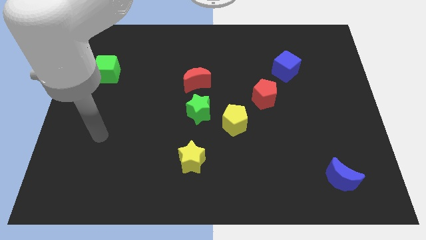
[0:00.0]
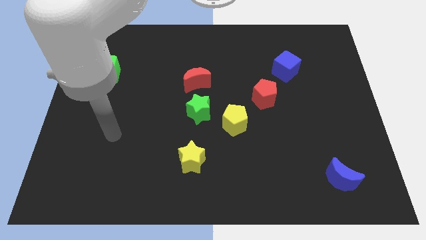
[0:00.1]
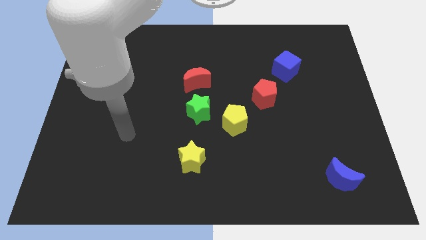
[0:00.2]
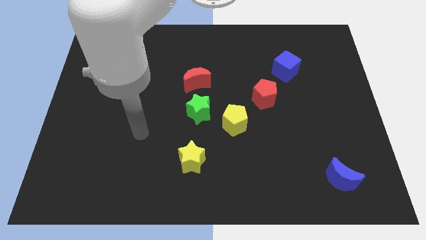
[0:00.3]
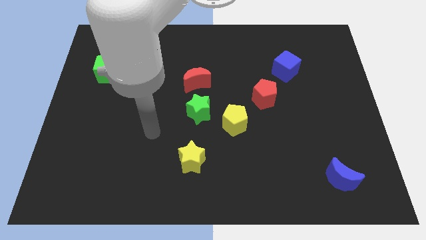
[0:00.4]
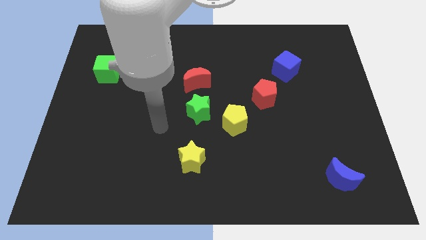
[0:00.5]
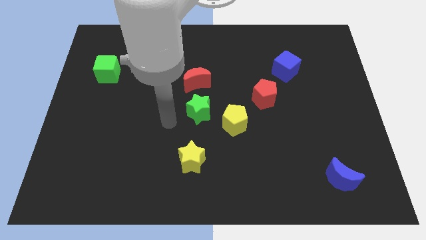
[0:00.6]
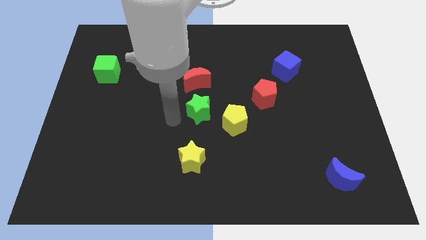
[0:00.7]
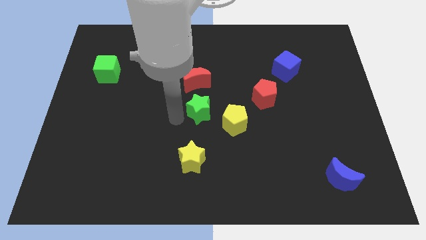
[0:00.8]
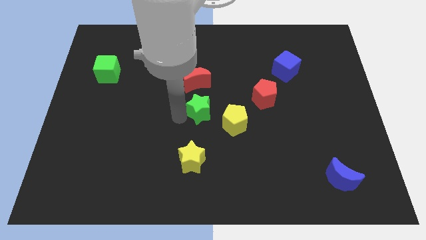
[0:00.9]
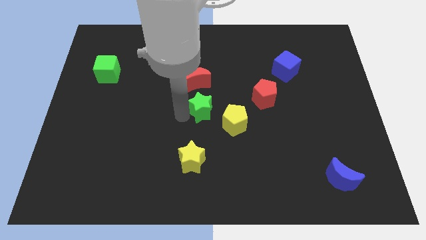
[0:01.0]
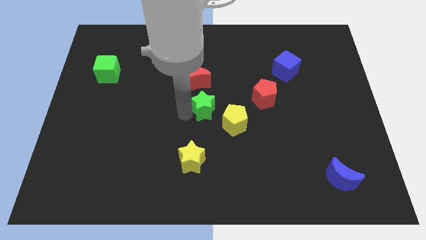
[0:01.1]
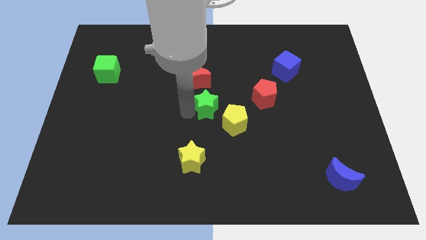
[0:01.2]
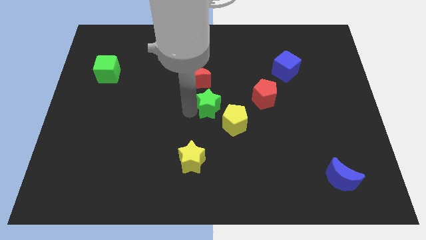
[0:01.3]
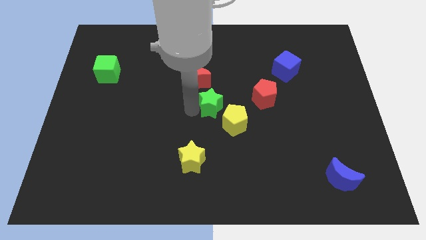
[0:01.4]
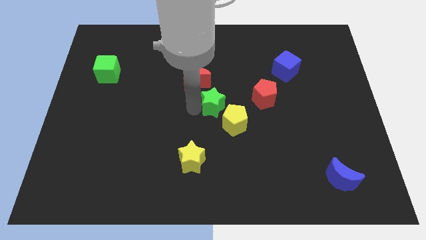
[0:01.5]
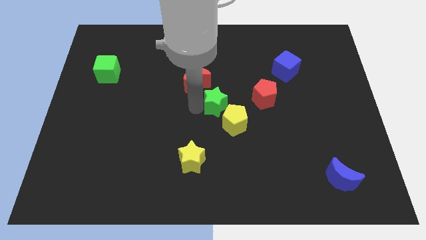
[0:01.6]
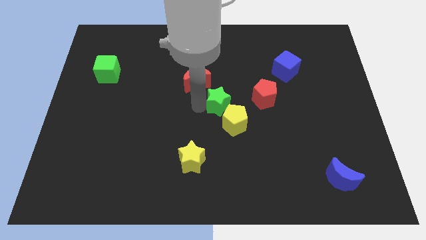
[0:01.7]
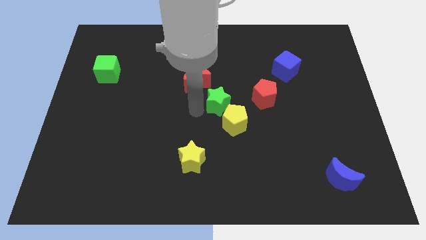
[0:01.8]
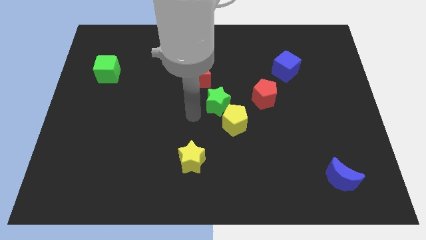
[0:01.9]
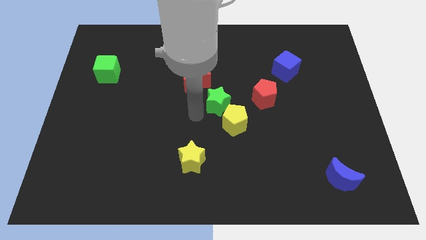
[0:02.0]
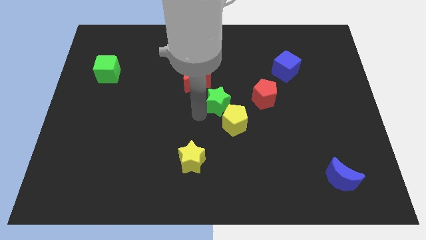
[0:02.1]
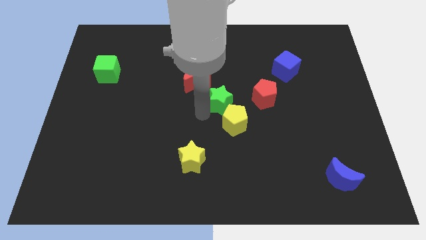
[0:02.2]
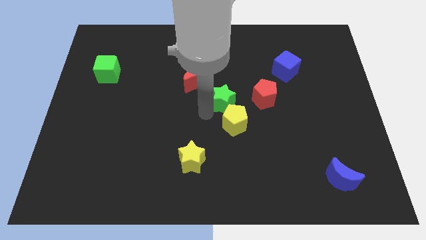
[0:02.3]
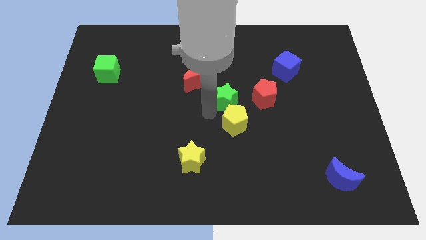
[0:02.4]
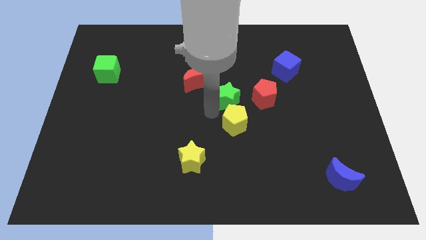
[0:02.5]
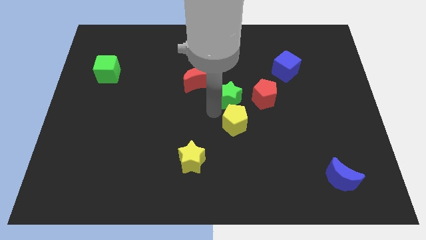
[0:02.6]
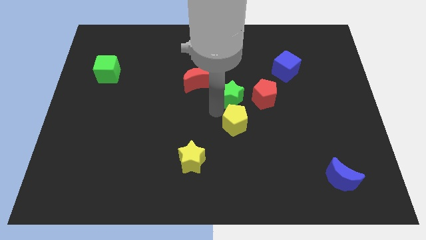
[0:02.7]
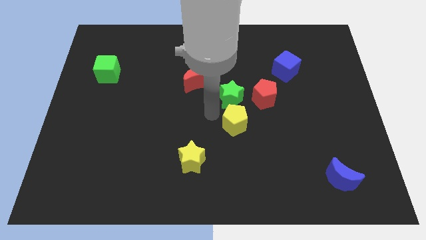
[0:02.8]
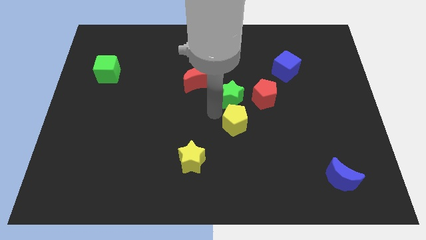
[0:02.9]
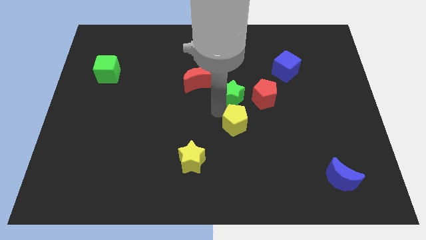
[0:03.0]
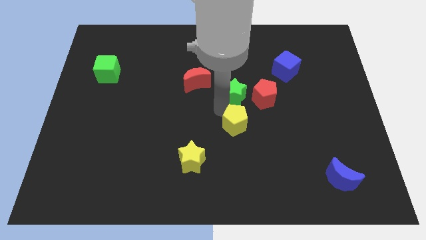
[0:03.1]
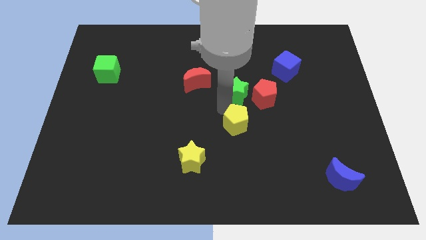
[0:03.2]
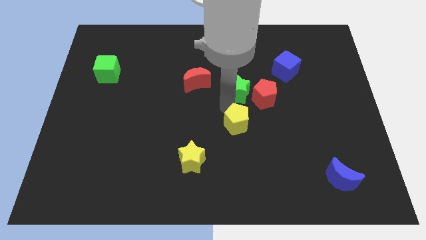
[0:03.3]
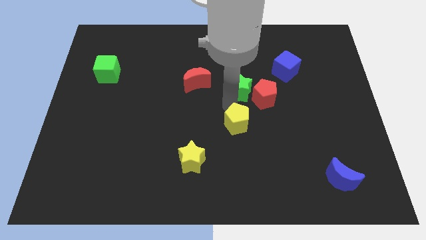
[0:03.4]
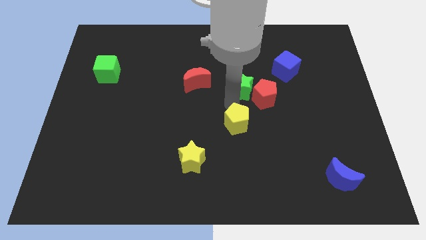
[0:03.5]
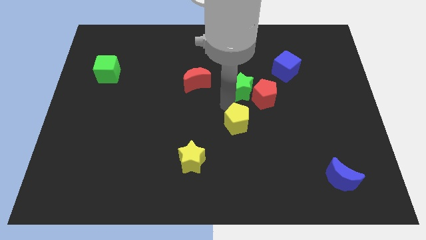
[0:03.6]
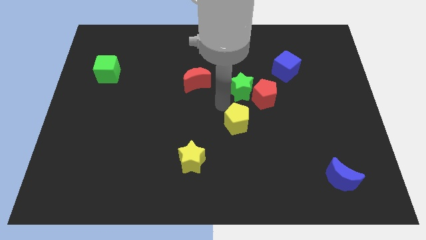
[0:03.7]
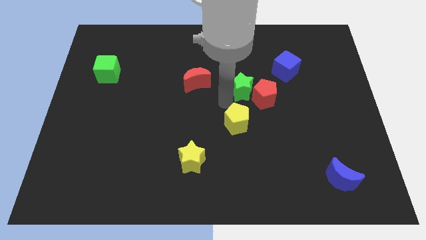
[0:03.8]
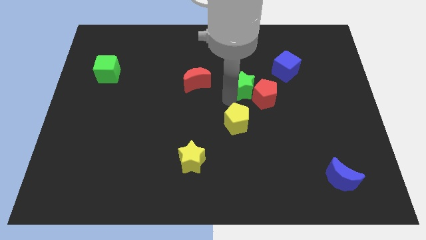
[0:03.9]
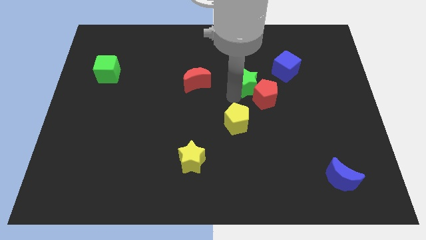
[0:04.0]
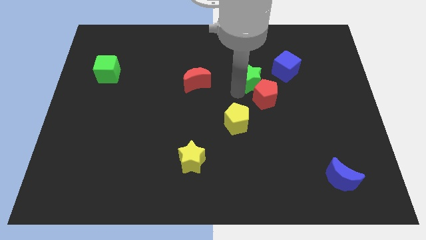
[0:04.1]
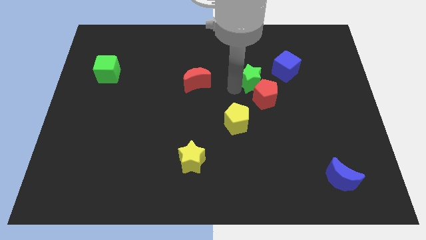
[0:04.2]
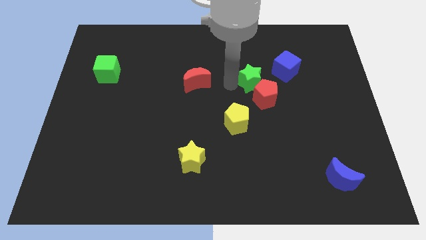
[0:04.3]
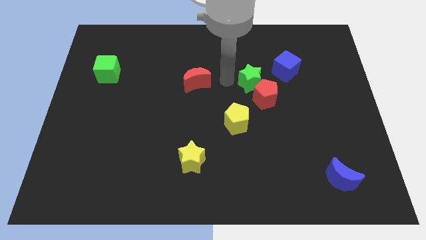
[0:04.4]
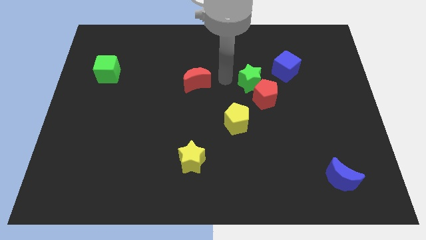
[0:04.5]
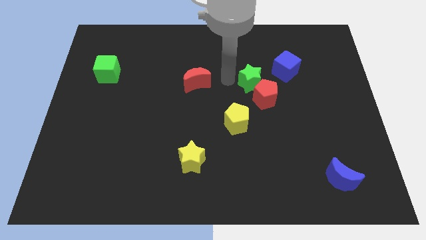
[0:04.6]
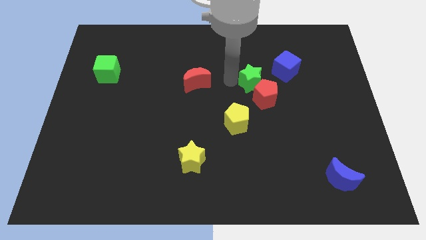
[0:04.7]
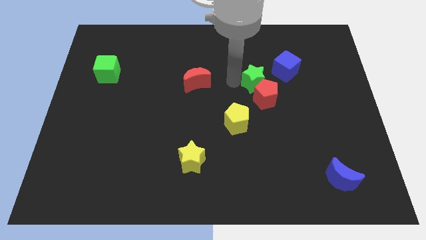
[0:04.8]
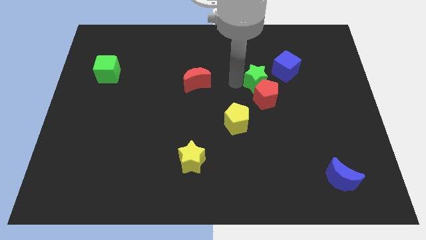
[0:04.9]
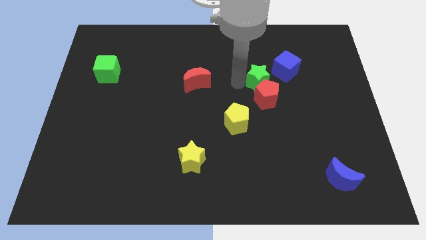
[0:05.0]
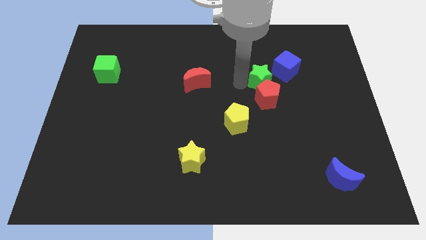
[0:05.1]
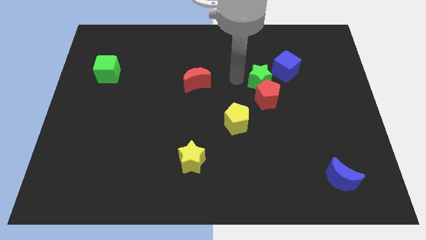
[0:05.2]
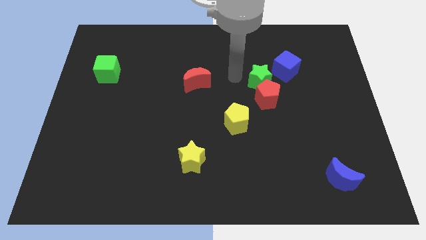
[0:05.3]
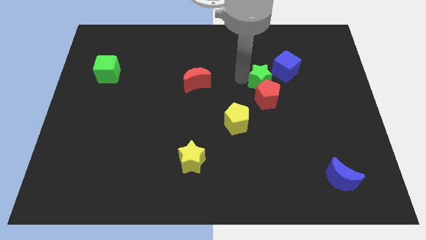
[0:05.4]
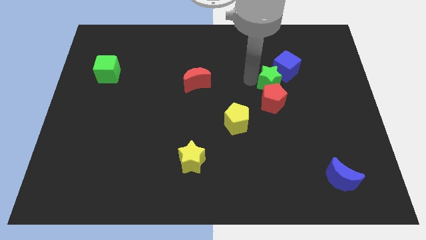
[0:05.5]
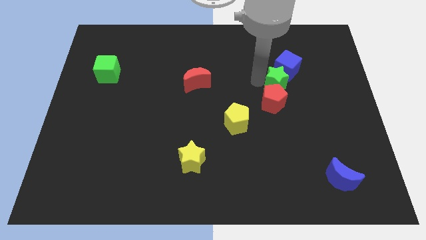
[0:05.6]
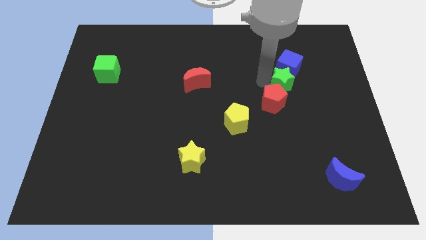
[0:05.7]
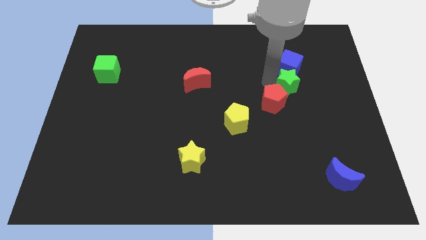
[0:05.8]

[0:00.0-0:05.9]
push the green star diagonally down and to the right of the blue cube

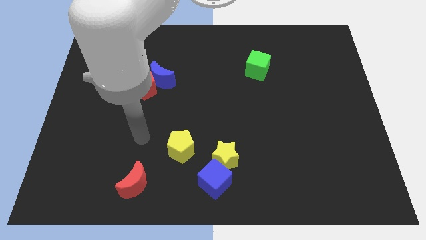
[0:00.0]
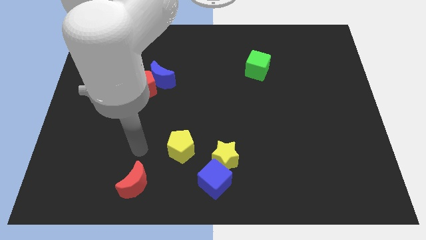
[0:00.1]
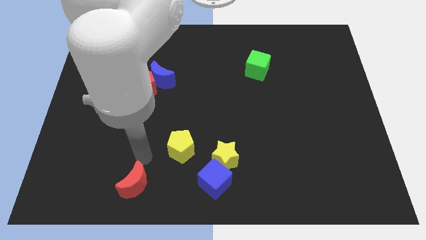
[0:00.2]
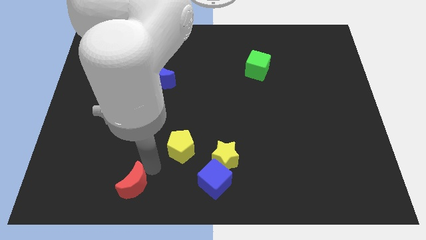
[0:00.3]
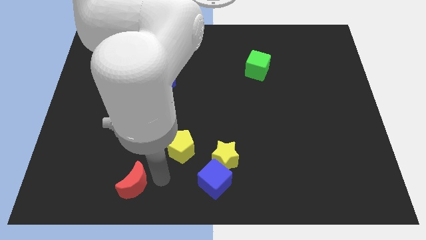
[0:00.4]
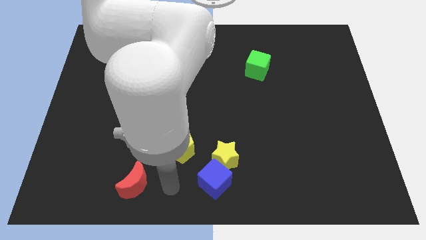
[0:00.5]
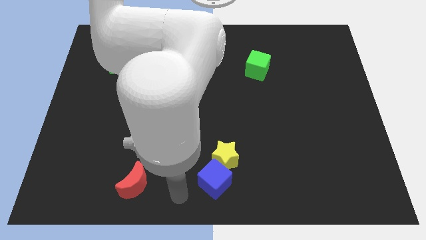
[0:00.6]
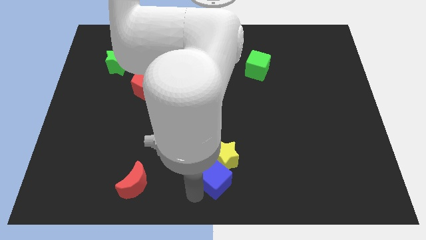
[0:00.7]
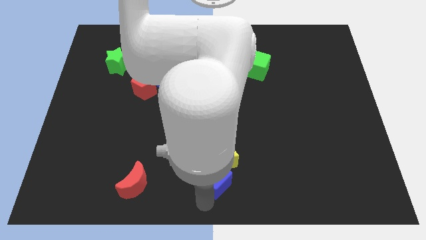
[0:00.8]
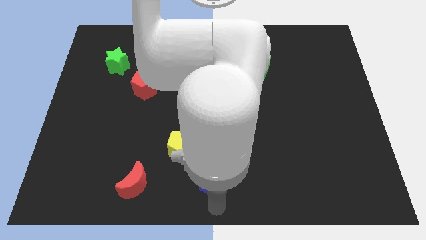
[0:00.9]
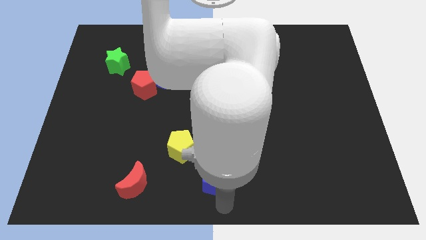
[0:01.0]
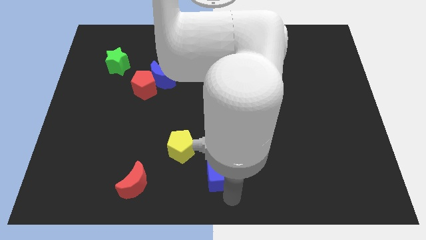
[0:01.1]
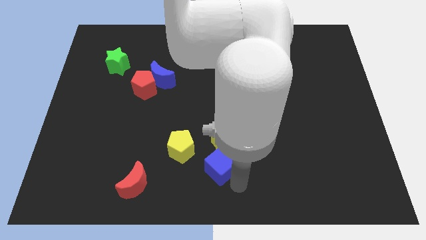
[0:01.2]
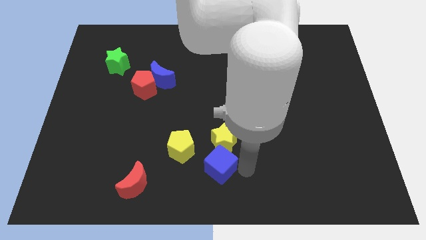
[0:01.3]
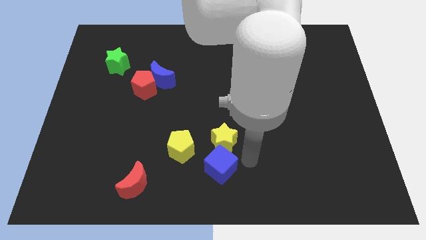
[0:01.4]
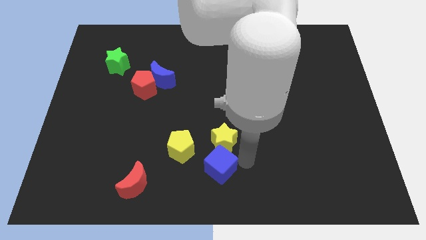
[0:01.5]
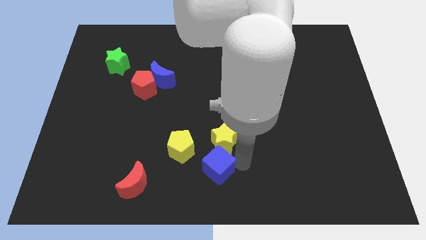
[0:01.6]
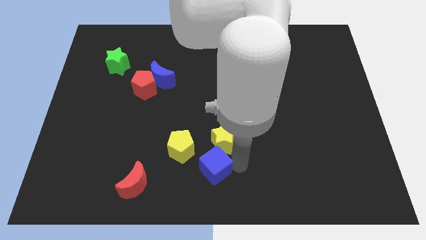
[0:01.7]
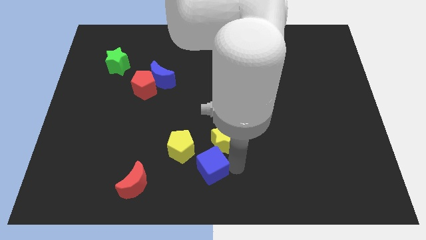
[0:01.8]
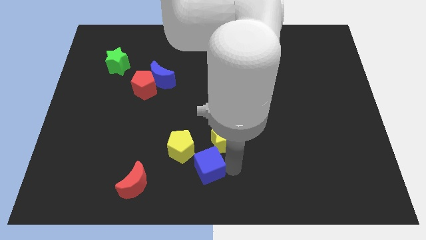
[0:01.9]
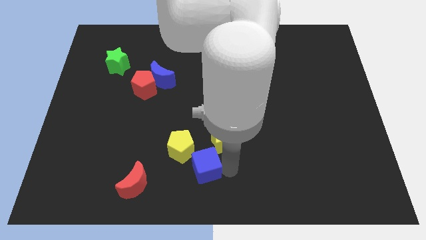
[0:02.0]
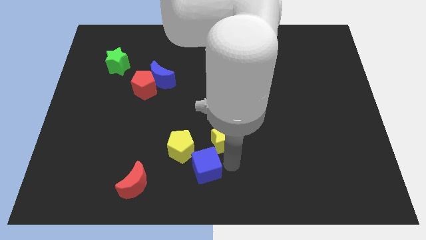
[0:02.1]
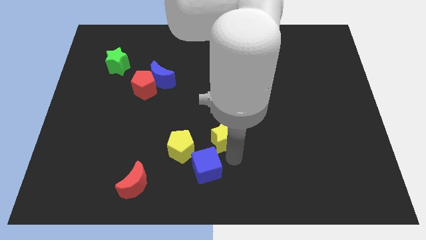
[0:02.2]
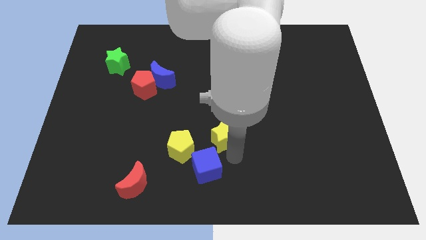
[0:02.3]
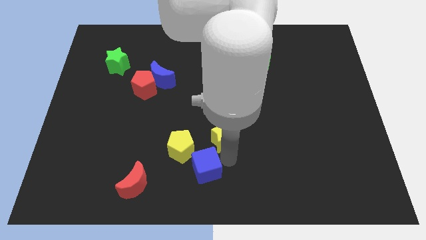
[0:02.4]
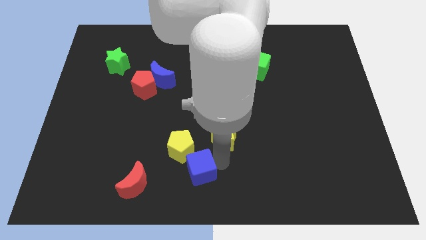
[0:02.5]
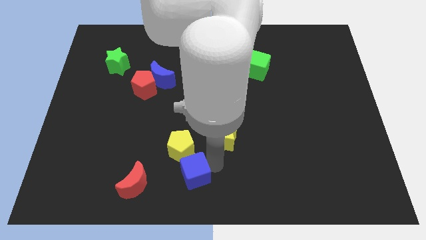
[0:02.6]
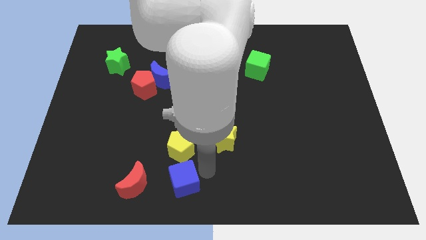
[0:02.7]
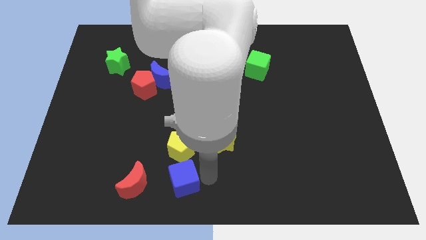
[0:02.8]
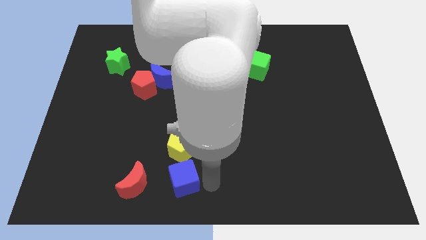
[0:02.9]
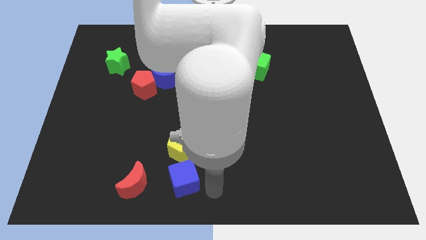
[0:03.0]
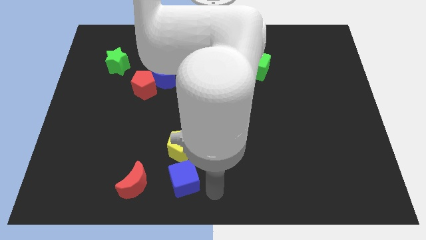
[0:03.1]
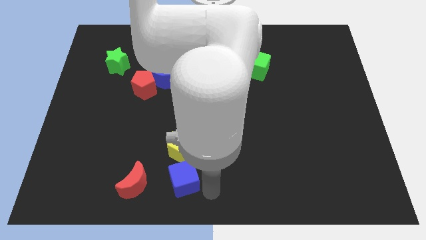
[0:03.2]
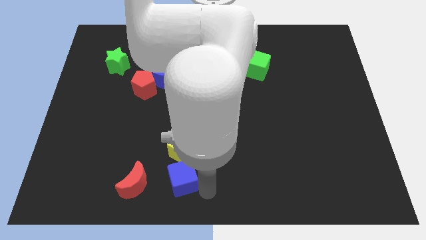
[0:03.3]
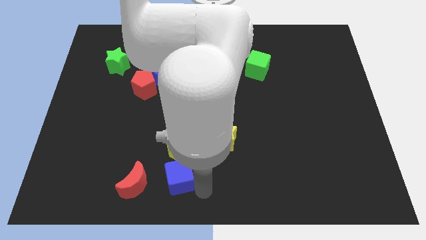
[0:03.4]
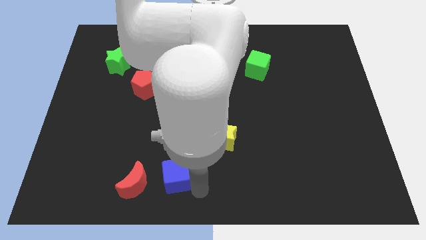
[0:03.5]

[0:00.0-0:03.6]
put the blue cube to the bottom left of the yellow pentagon
